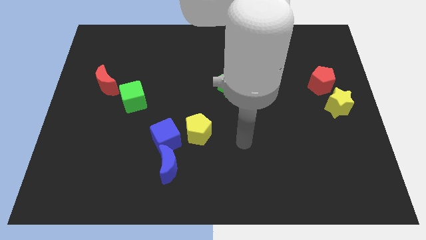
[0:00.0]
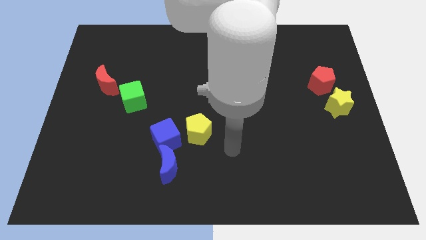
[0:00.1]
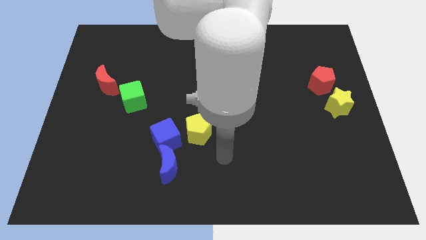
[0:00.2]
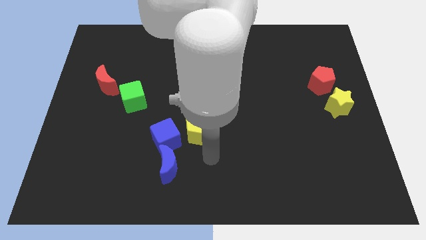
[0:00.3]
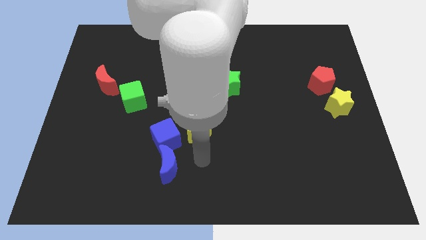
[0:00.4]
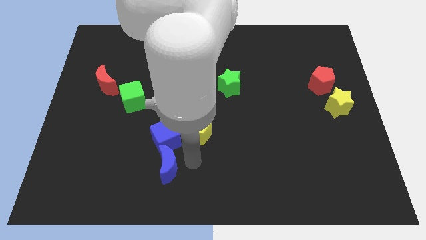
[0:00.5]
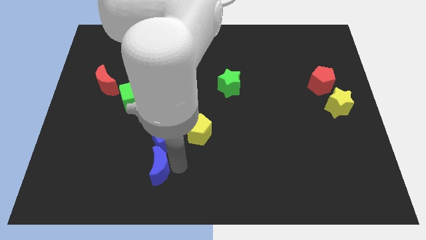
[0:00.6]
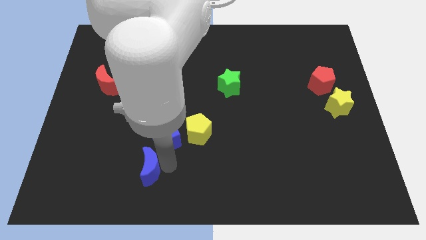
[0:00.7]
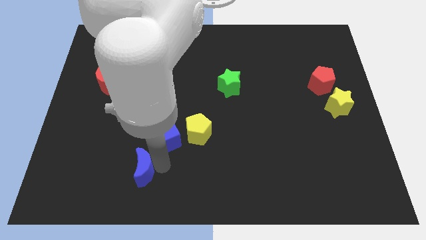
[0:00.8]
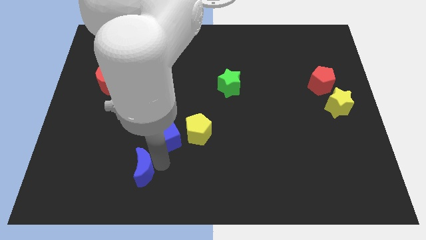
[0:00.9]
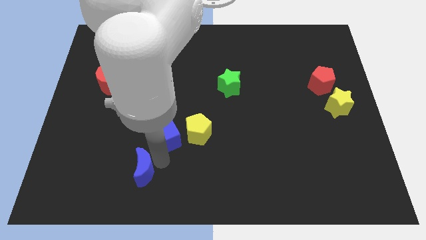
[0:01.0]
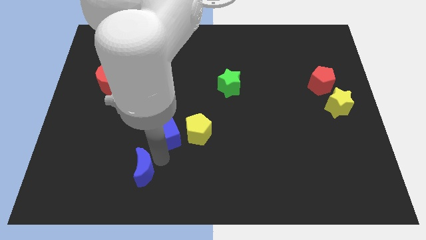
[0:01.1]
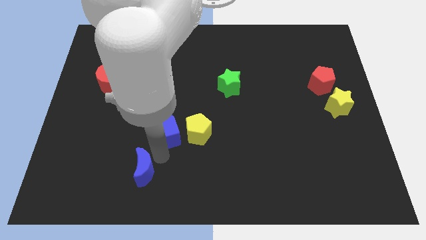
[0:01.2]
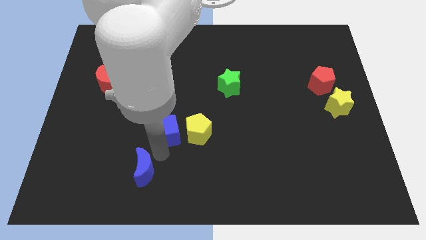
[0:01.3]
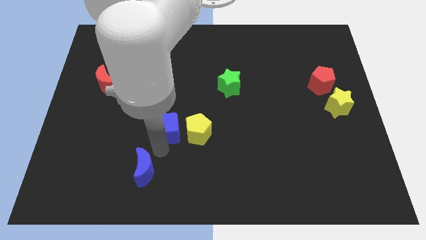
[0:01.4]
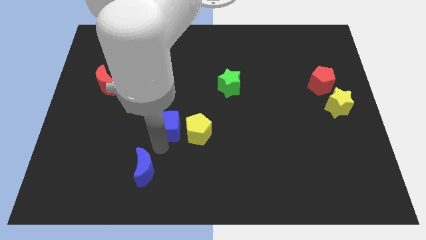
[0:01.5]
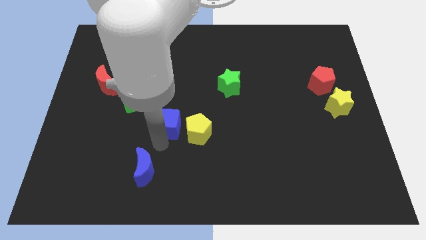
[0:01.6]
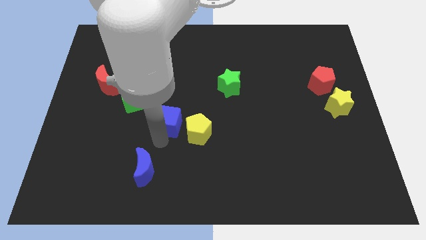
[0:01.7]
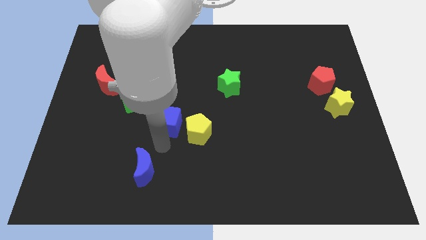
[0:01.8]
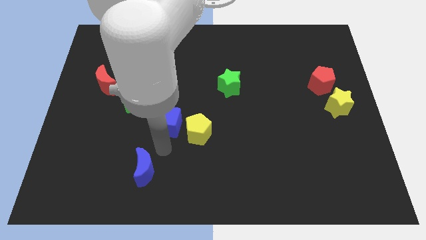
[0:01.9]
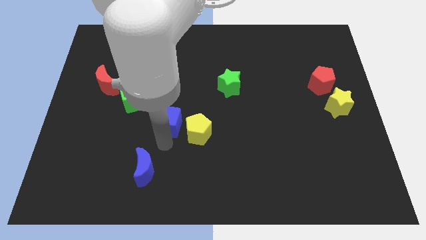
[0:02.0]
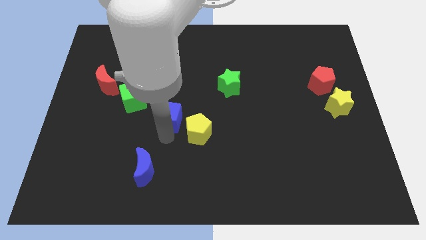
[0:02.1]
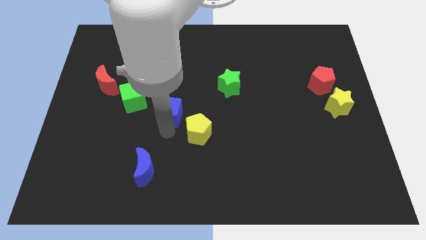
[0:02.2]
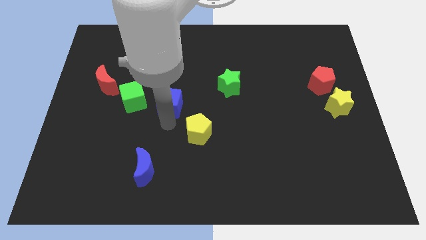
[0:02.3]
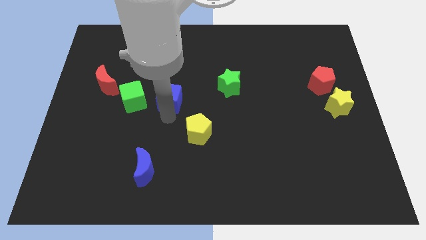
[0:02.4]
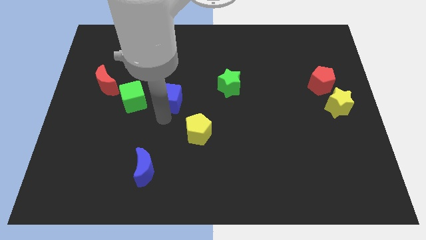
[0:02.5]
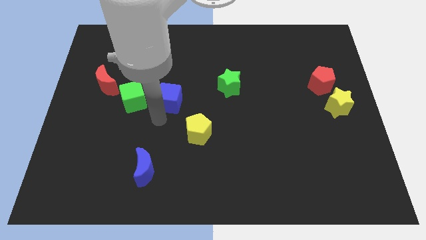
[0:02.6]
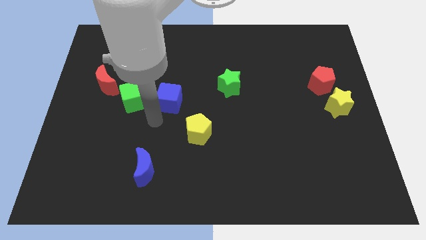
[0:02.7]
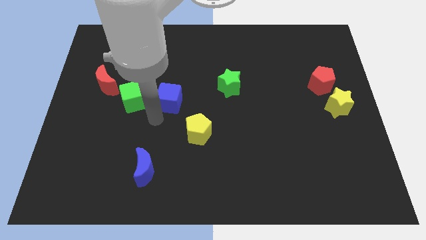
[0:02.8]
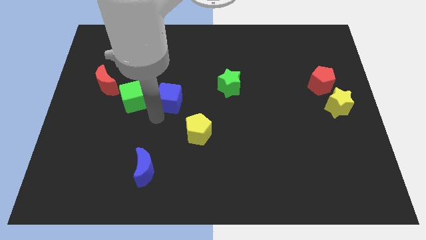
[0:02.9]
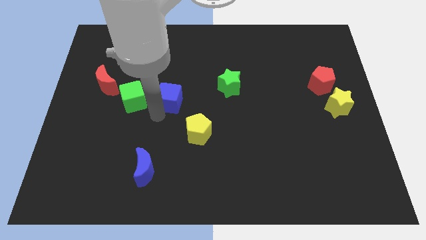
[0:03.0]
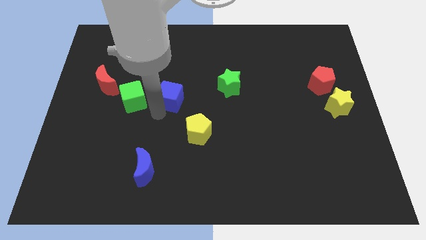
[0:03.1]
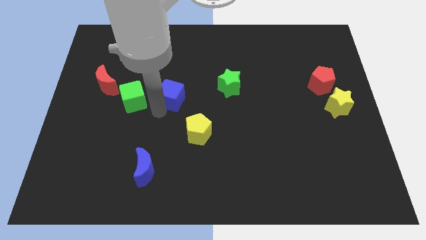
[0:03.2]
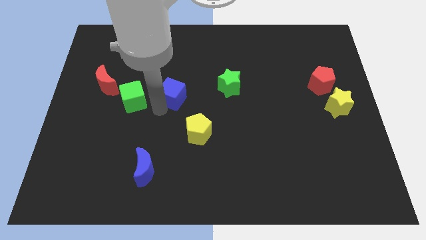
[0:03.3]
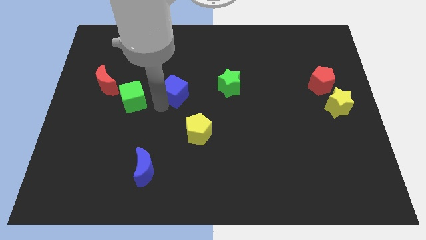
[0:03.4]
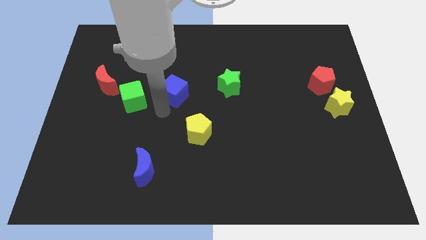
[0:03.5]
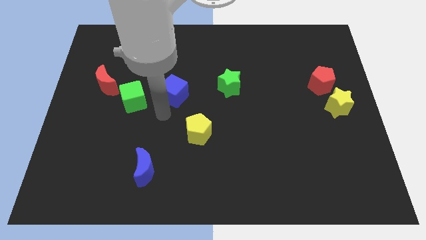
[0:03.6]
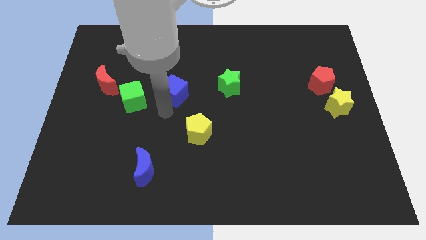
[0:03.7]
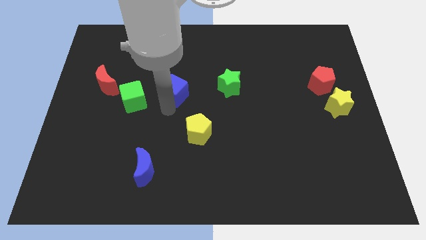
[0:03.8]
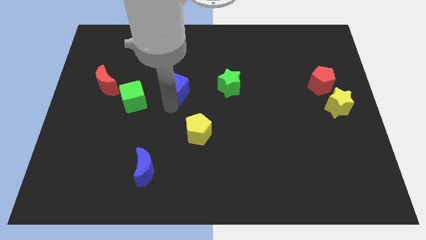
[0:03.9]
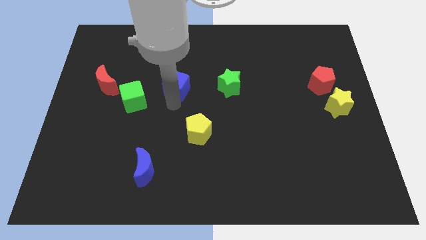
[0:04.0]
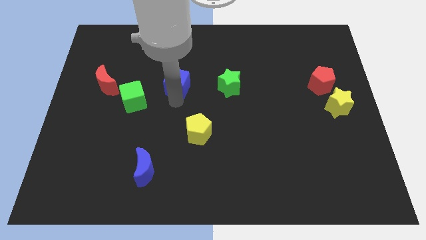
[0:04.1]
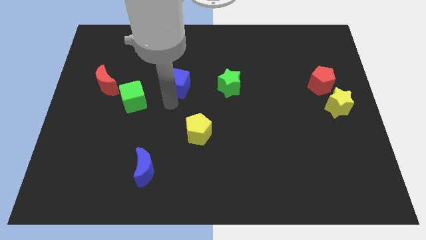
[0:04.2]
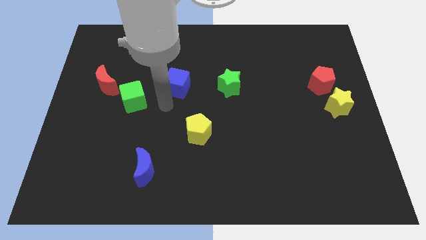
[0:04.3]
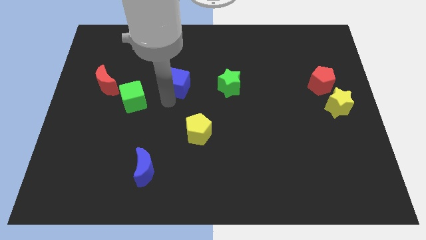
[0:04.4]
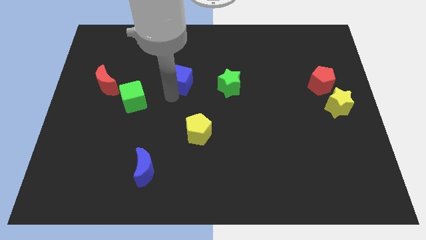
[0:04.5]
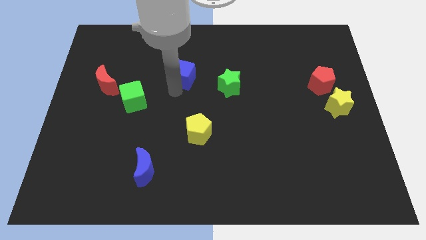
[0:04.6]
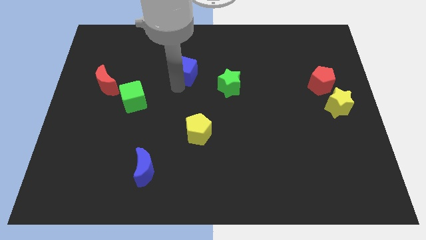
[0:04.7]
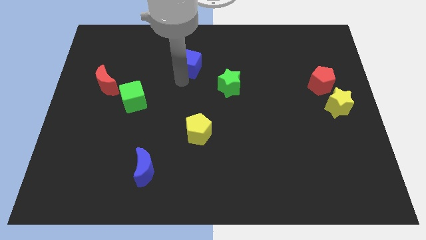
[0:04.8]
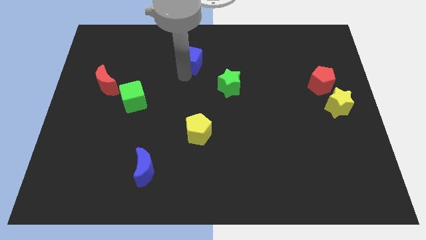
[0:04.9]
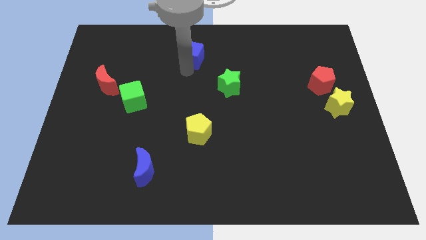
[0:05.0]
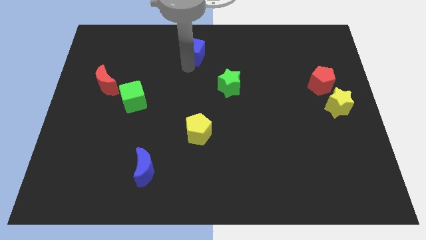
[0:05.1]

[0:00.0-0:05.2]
move the blue cube to the towards your base

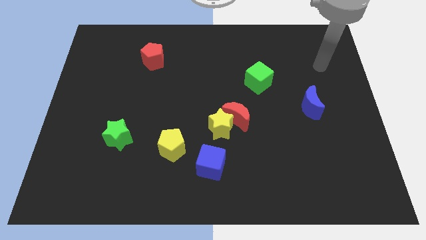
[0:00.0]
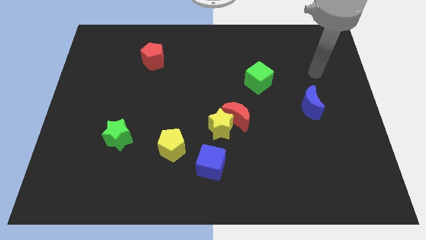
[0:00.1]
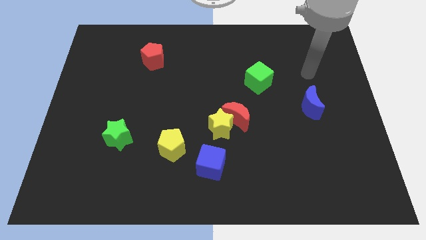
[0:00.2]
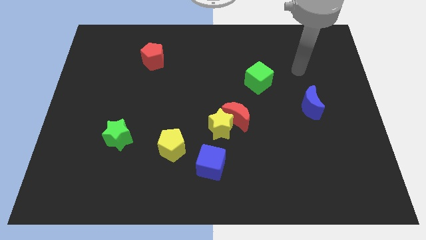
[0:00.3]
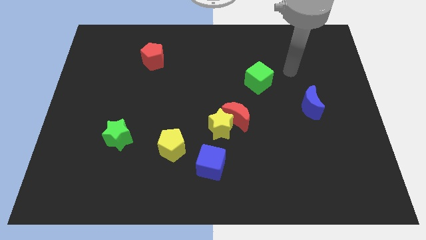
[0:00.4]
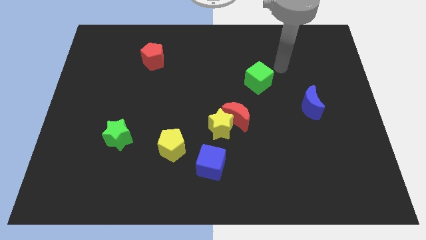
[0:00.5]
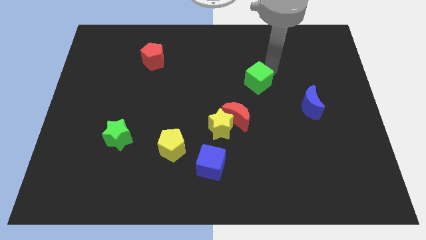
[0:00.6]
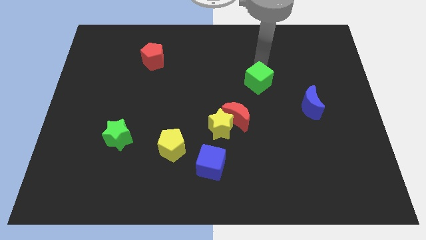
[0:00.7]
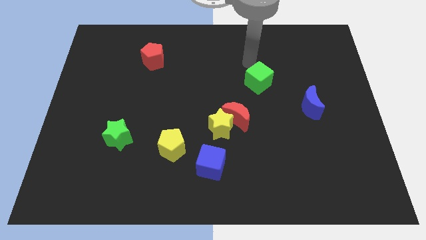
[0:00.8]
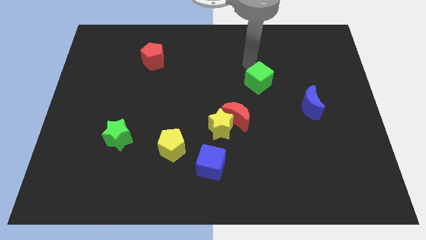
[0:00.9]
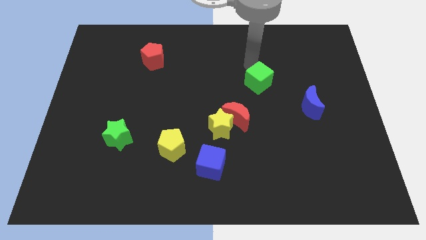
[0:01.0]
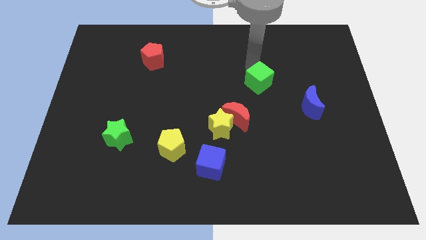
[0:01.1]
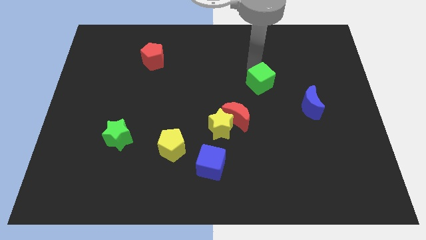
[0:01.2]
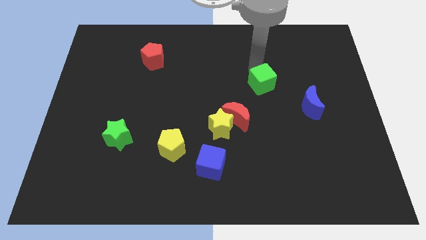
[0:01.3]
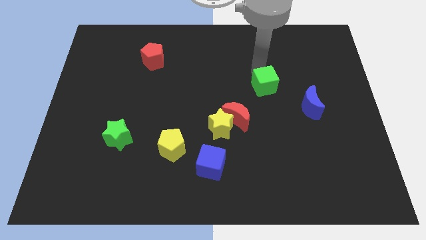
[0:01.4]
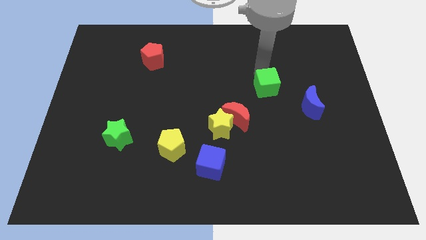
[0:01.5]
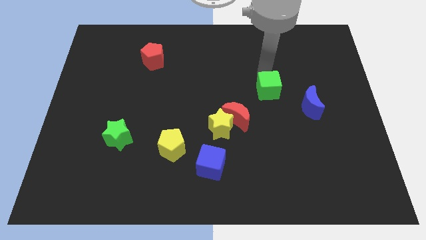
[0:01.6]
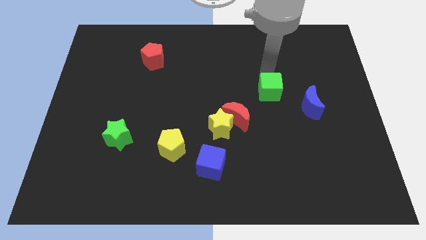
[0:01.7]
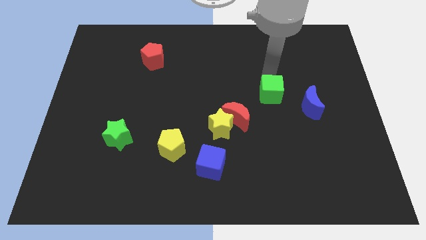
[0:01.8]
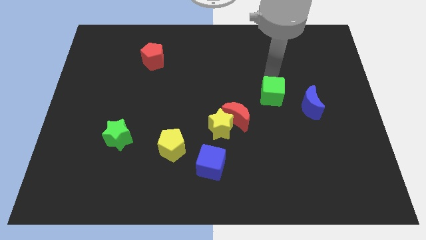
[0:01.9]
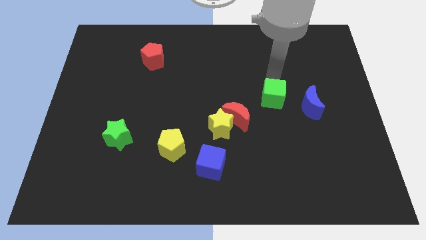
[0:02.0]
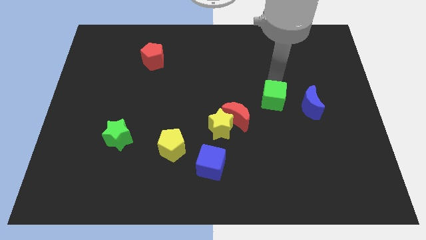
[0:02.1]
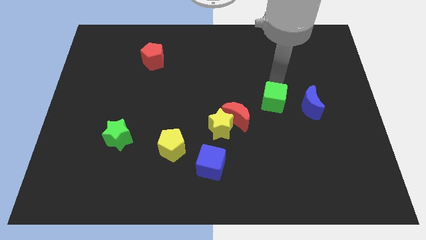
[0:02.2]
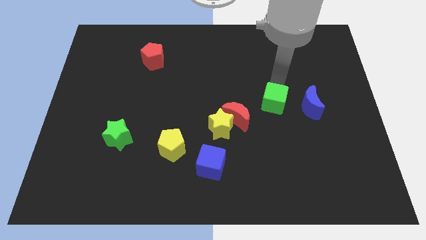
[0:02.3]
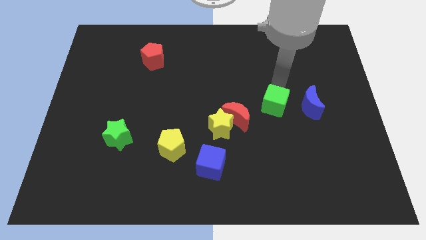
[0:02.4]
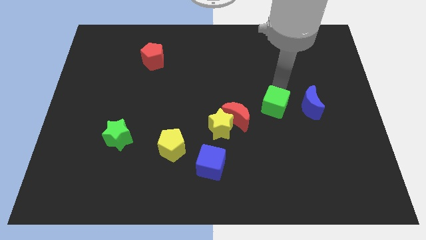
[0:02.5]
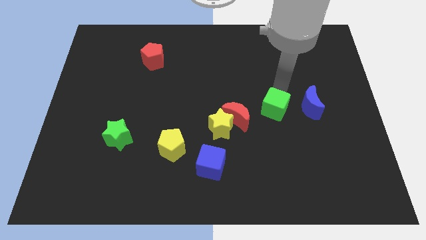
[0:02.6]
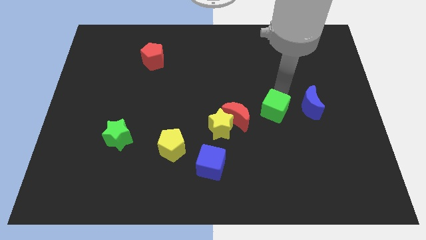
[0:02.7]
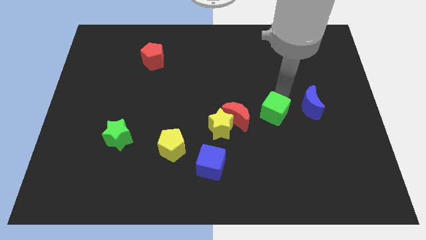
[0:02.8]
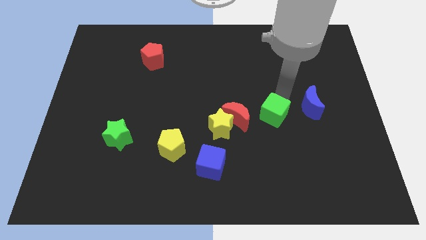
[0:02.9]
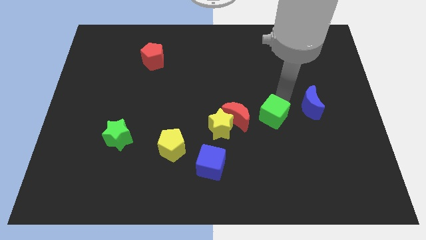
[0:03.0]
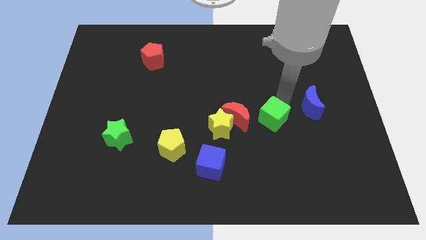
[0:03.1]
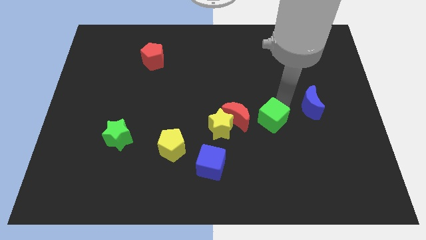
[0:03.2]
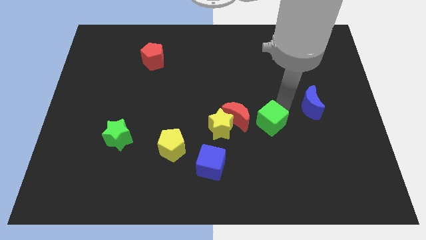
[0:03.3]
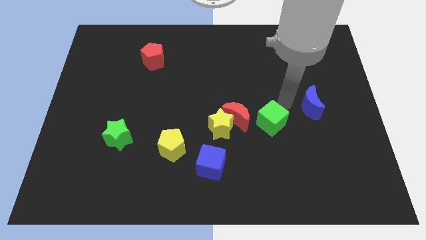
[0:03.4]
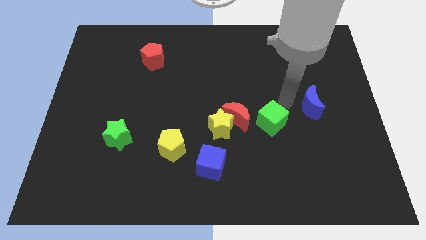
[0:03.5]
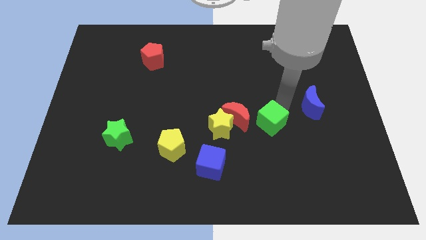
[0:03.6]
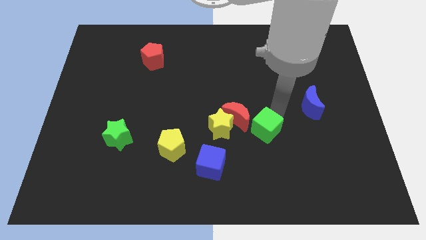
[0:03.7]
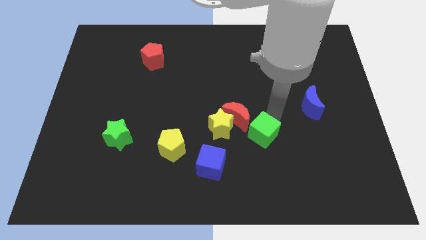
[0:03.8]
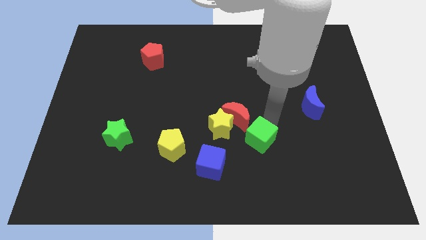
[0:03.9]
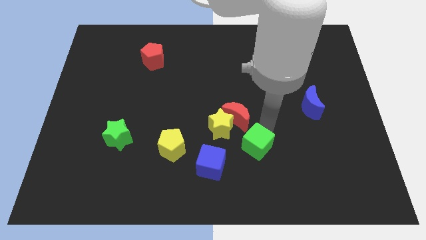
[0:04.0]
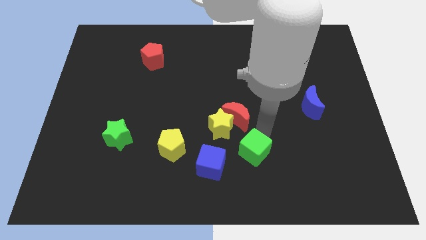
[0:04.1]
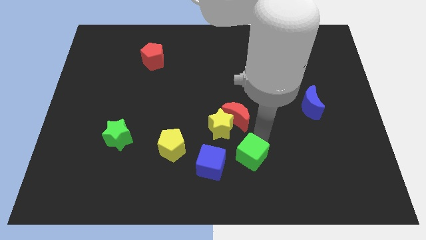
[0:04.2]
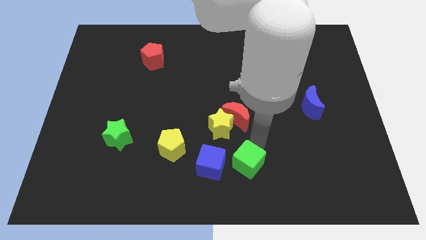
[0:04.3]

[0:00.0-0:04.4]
slide the green cube to the bottom
